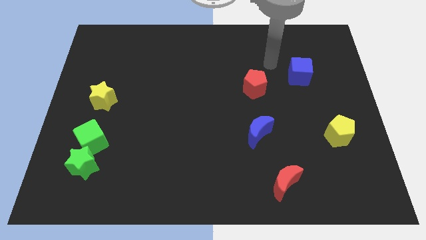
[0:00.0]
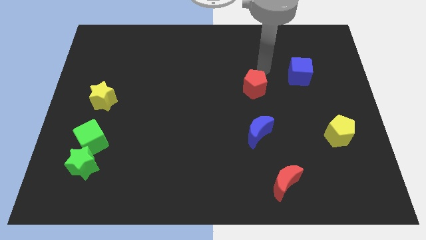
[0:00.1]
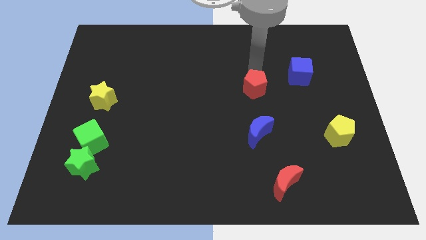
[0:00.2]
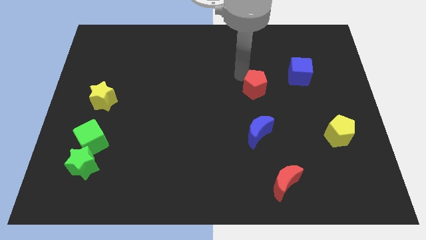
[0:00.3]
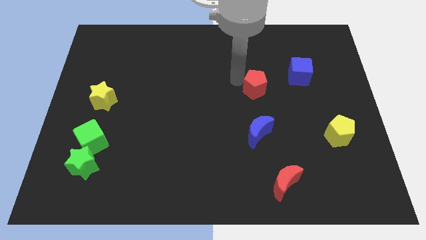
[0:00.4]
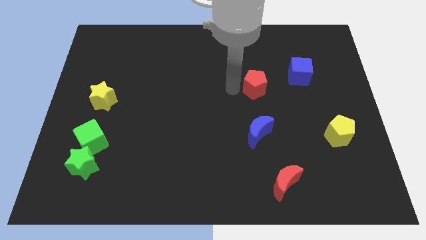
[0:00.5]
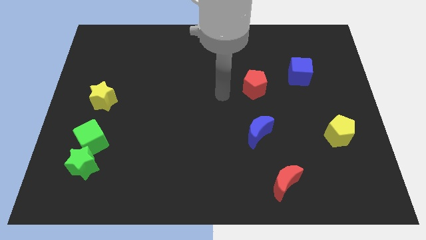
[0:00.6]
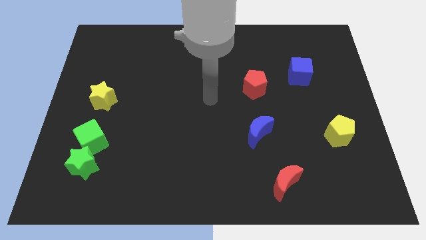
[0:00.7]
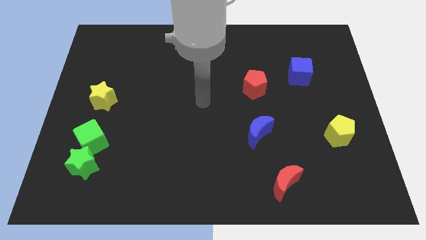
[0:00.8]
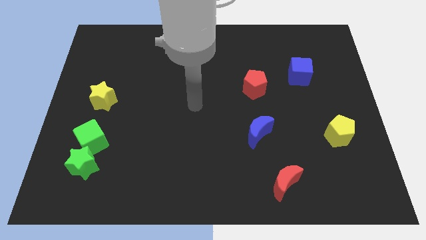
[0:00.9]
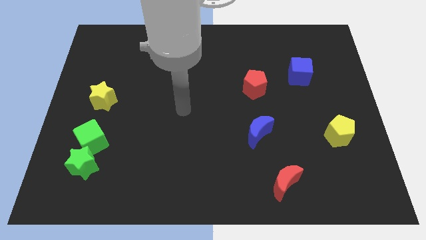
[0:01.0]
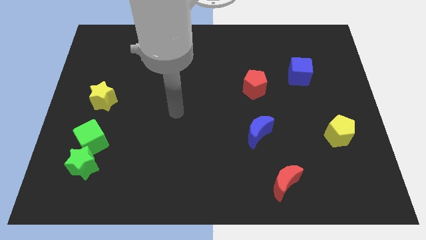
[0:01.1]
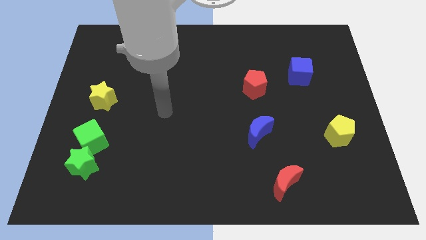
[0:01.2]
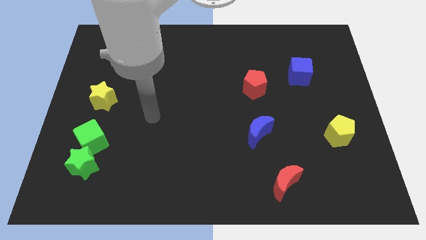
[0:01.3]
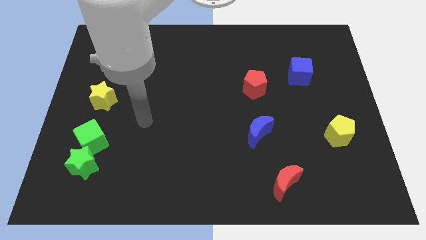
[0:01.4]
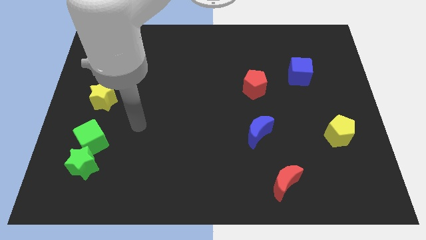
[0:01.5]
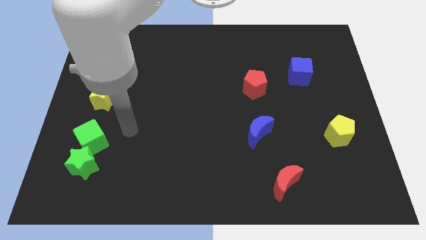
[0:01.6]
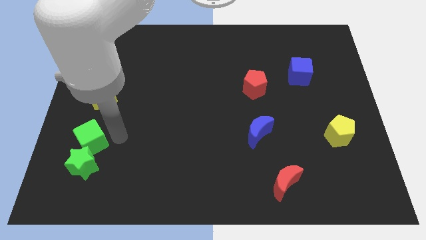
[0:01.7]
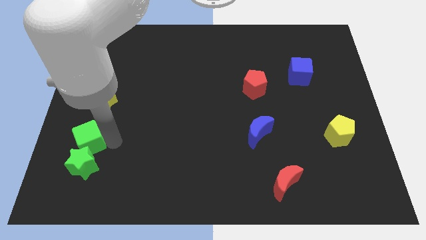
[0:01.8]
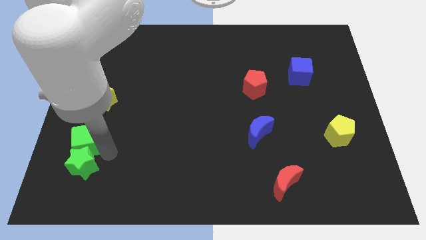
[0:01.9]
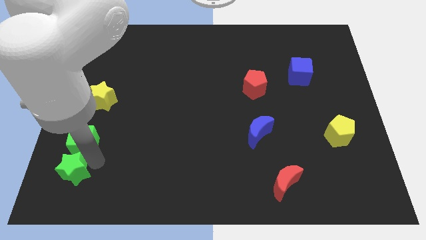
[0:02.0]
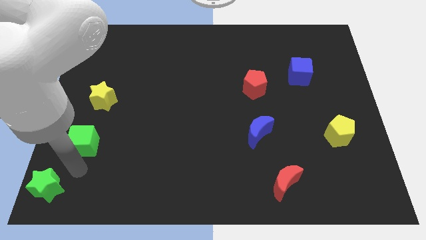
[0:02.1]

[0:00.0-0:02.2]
pull the green cube apart from the green star

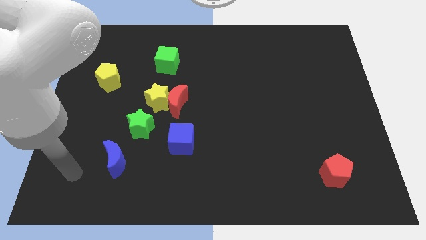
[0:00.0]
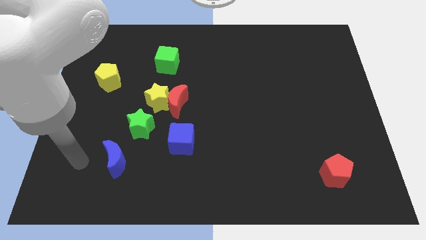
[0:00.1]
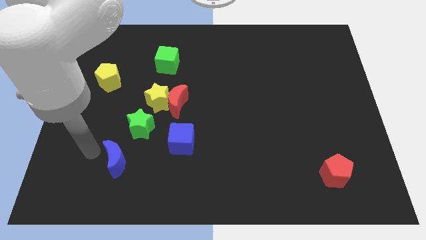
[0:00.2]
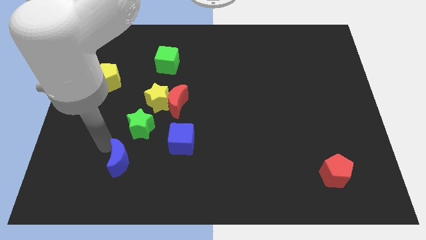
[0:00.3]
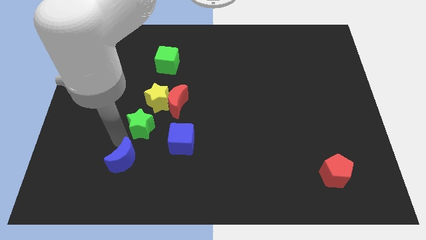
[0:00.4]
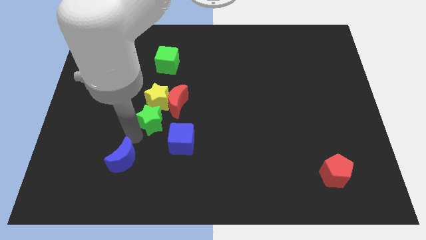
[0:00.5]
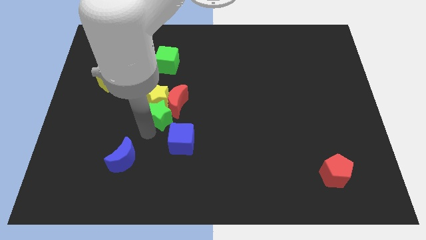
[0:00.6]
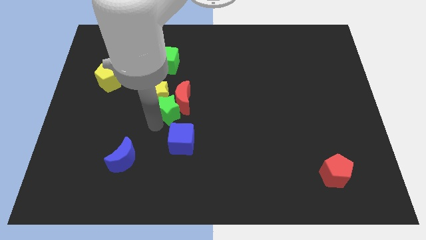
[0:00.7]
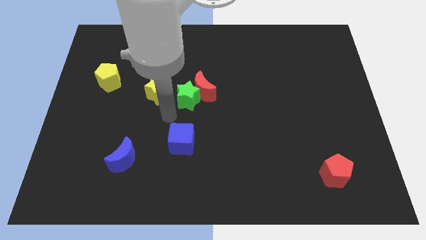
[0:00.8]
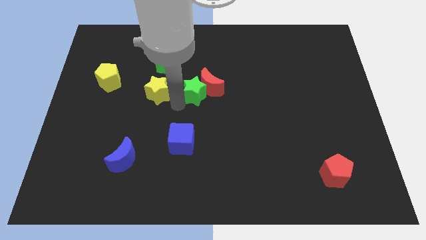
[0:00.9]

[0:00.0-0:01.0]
move the yellow star away from the red moon and green star

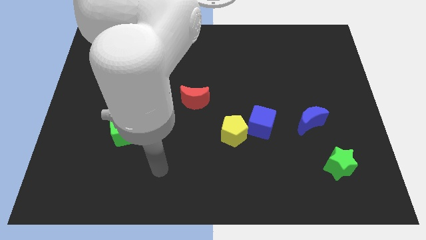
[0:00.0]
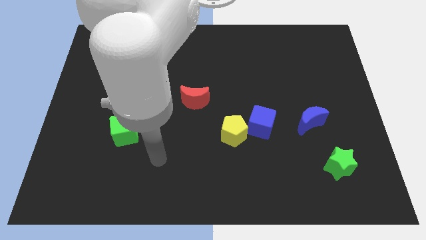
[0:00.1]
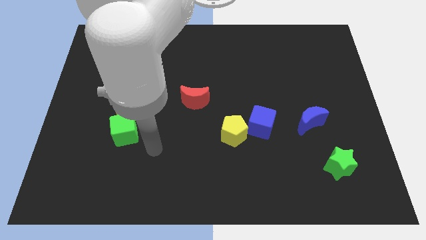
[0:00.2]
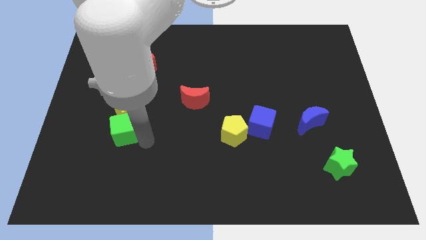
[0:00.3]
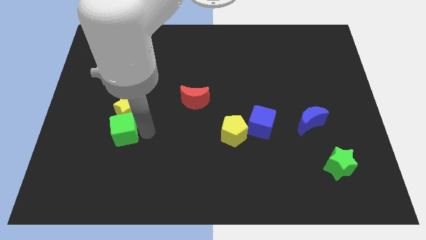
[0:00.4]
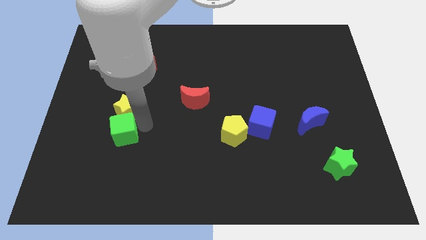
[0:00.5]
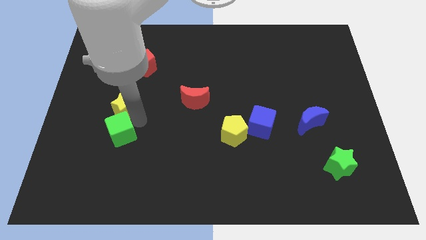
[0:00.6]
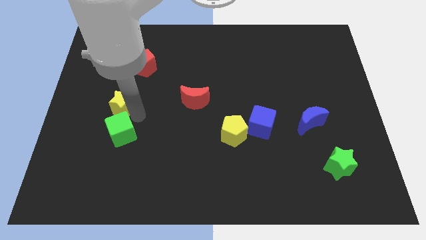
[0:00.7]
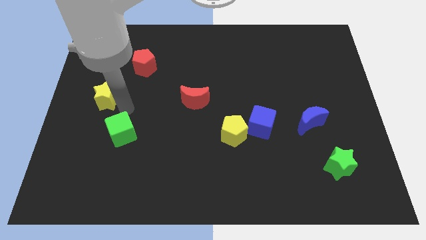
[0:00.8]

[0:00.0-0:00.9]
separate the green cube from the yellow star

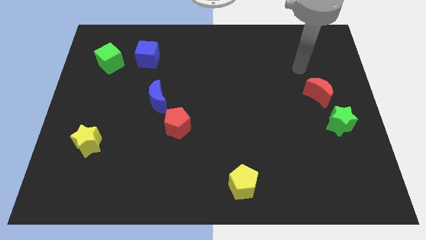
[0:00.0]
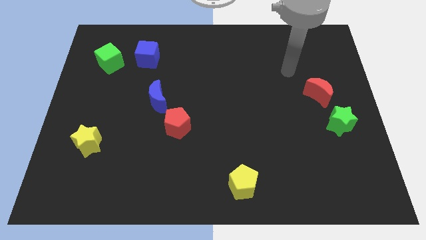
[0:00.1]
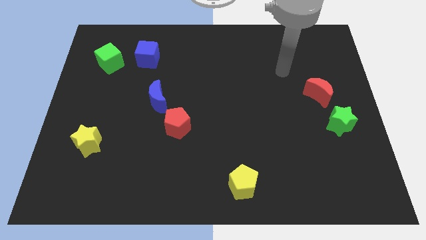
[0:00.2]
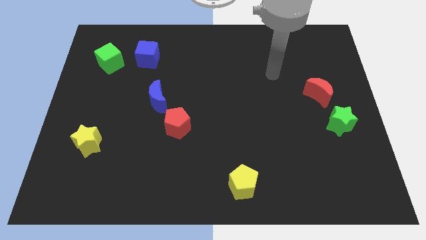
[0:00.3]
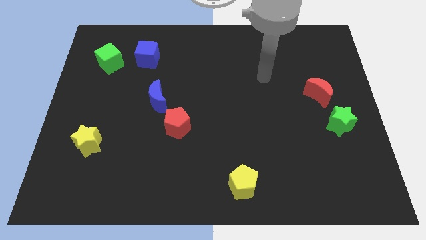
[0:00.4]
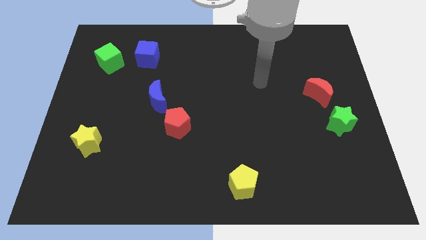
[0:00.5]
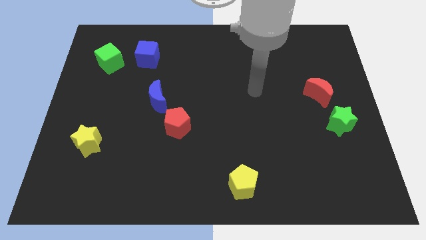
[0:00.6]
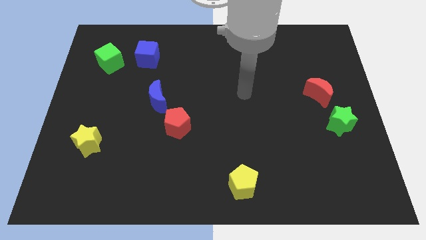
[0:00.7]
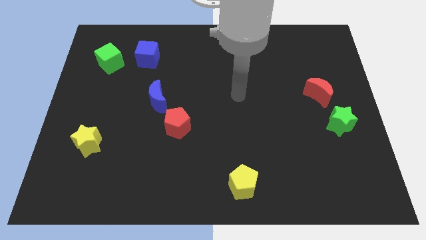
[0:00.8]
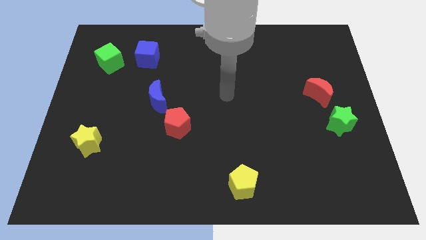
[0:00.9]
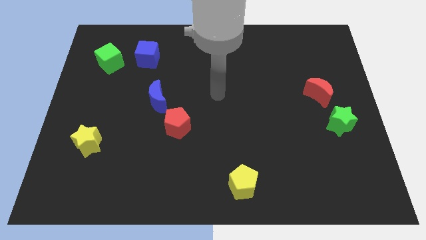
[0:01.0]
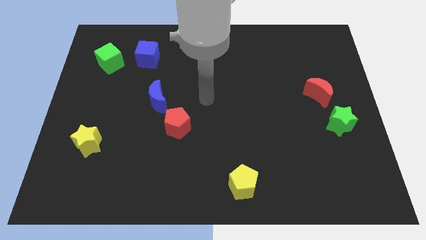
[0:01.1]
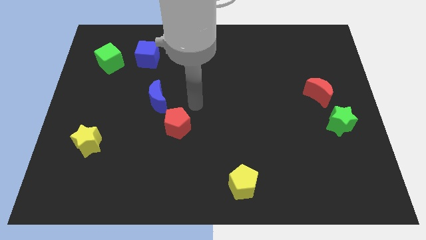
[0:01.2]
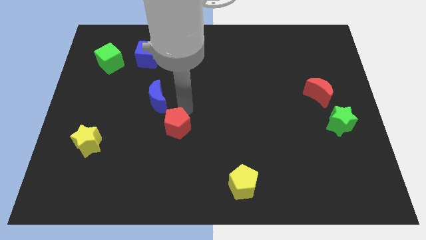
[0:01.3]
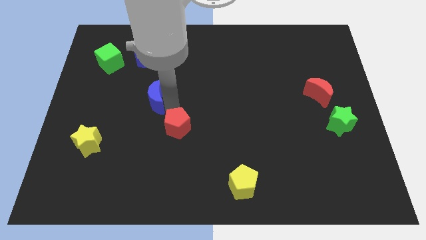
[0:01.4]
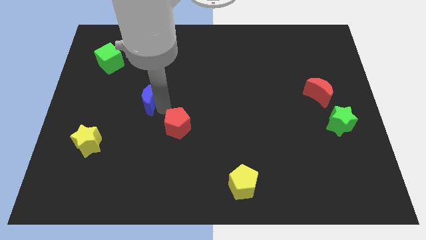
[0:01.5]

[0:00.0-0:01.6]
pull the red pentagon apart from the blue moon

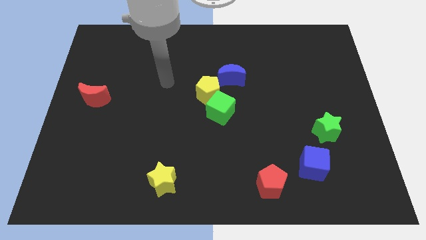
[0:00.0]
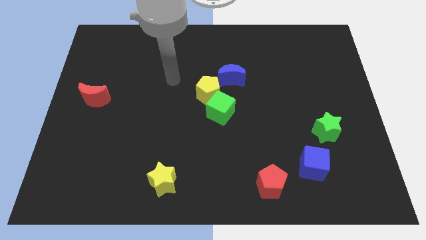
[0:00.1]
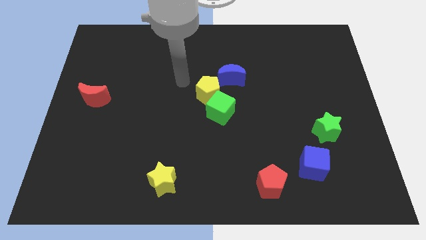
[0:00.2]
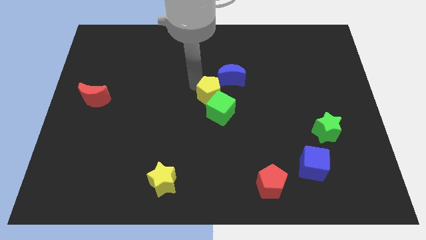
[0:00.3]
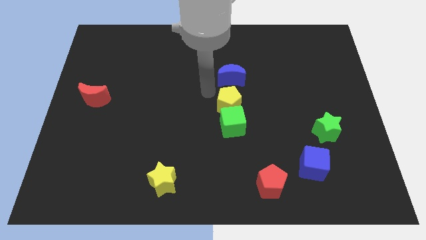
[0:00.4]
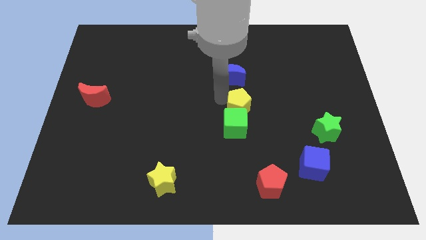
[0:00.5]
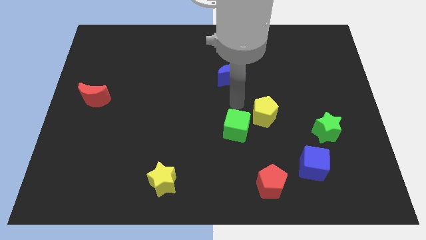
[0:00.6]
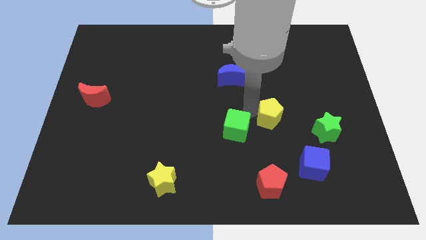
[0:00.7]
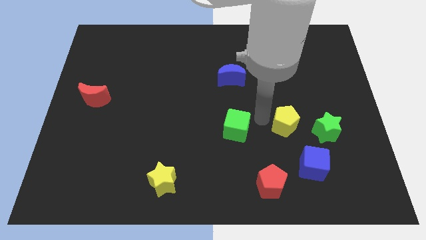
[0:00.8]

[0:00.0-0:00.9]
move the green cube away from the yellow pentagon

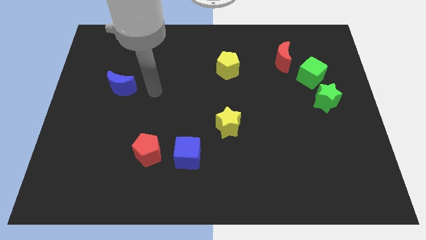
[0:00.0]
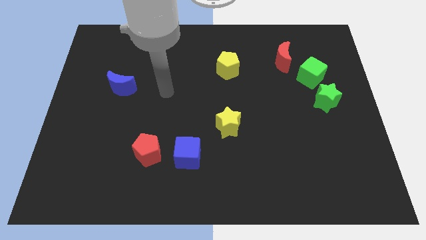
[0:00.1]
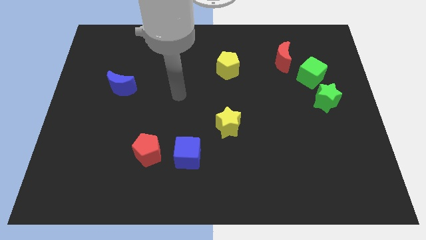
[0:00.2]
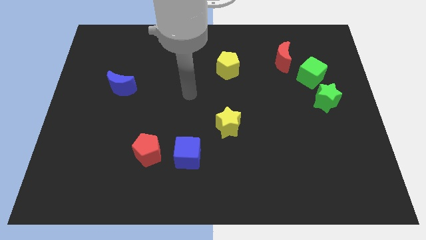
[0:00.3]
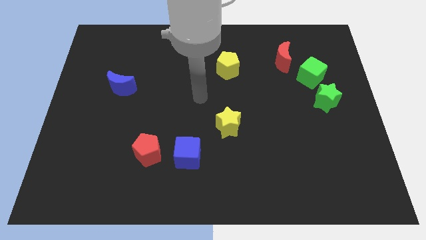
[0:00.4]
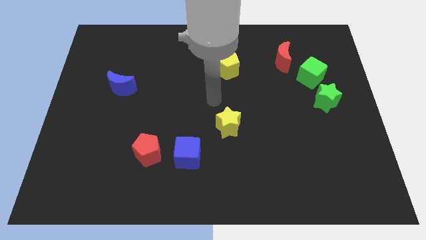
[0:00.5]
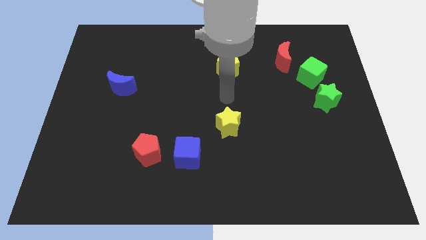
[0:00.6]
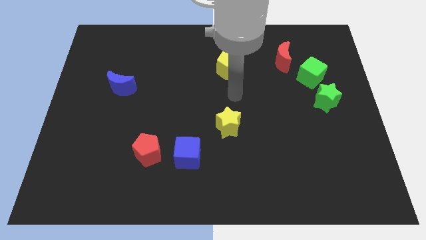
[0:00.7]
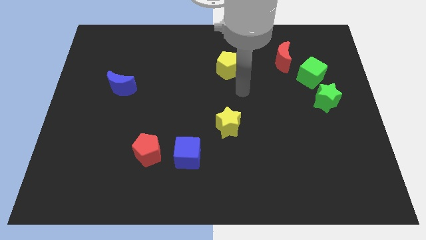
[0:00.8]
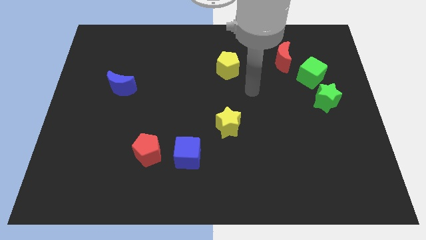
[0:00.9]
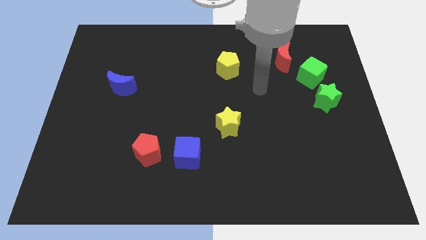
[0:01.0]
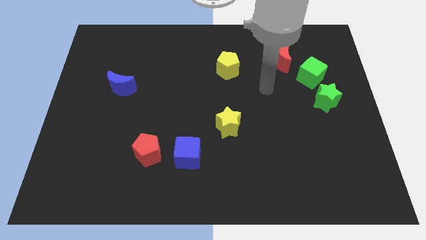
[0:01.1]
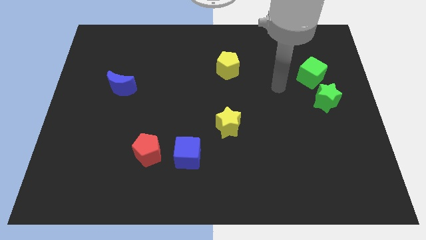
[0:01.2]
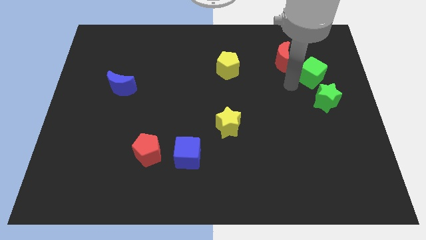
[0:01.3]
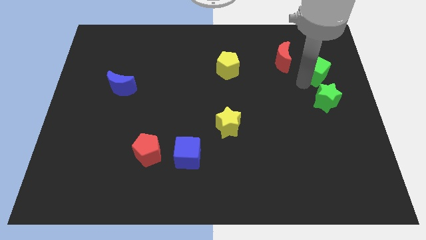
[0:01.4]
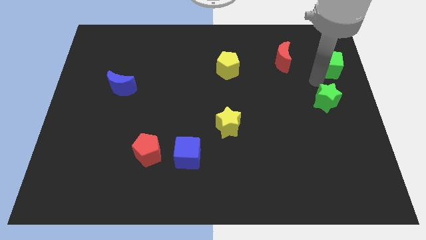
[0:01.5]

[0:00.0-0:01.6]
pull the green star apart from the green cube

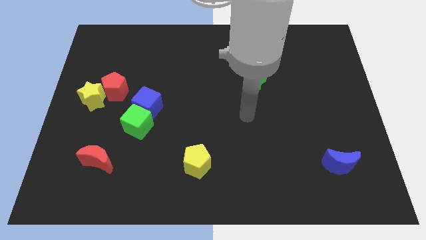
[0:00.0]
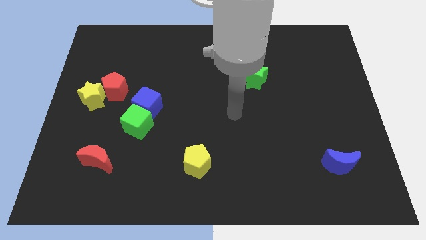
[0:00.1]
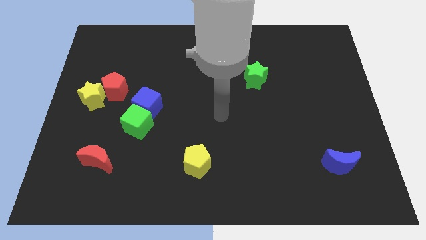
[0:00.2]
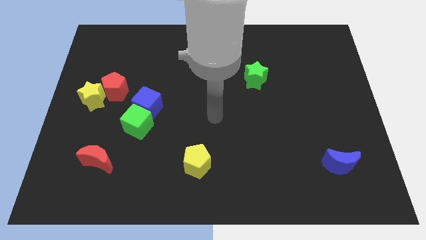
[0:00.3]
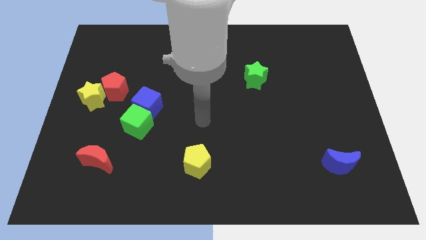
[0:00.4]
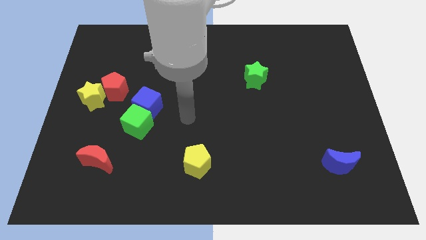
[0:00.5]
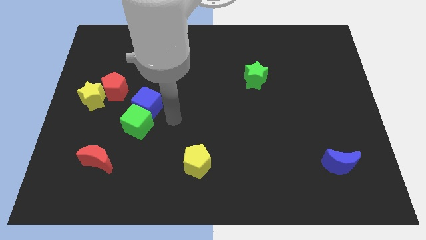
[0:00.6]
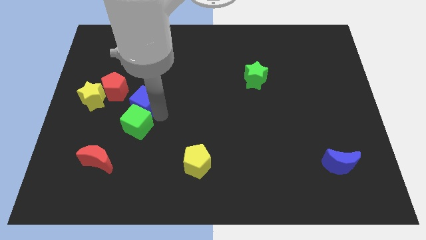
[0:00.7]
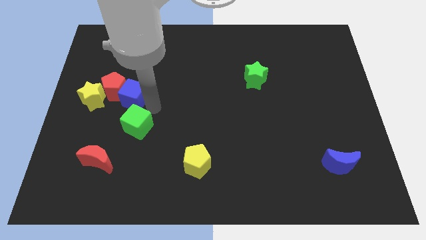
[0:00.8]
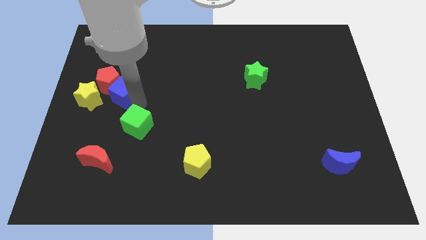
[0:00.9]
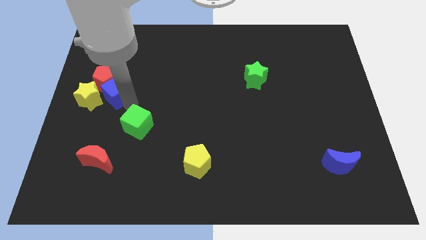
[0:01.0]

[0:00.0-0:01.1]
pull the green cube apart from the blue cube
